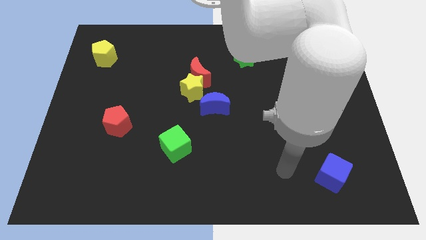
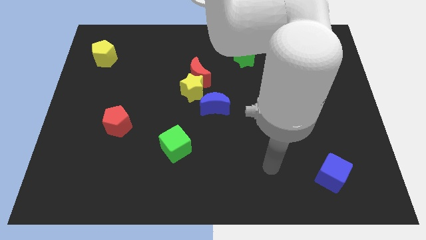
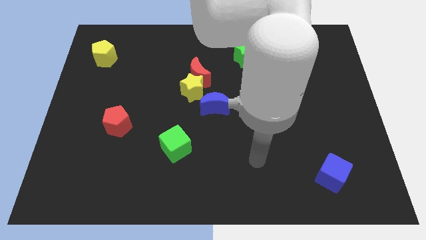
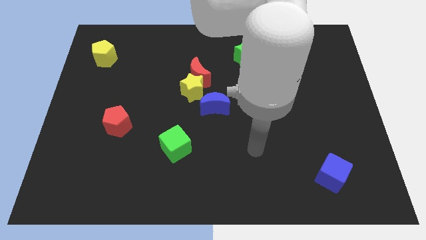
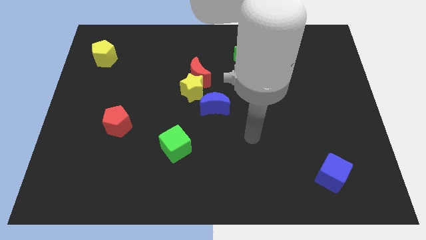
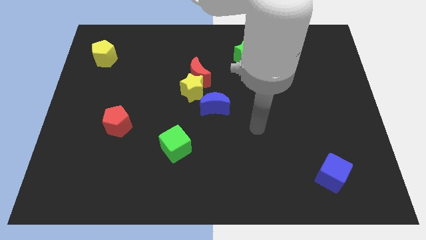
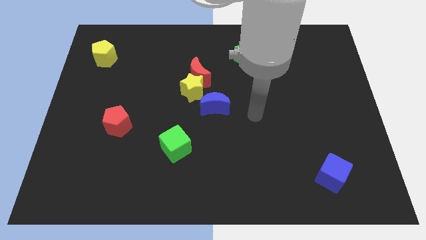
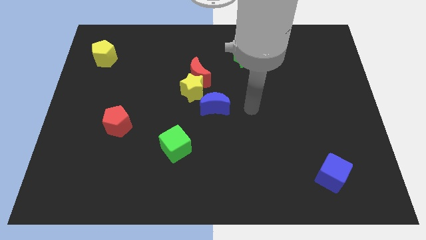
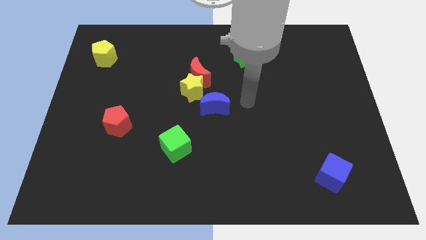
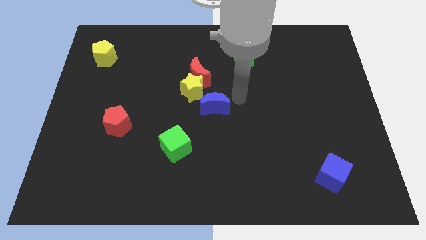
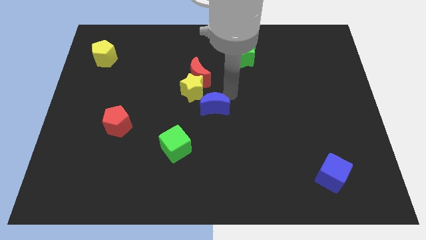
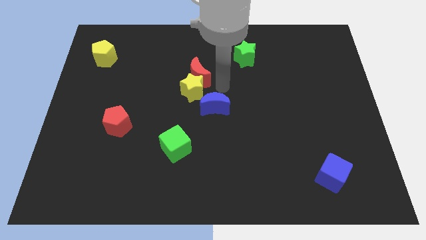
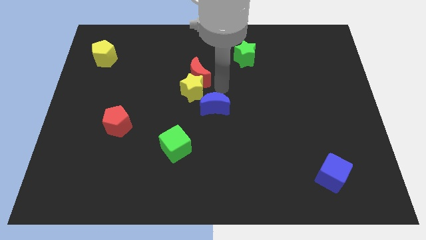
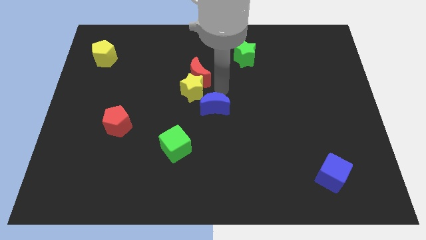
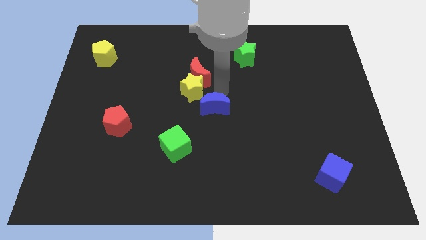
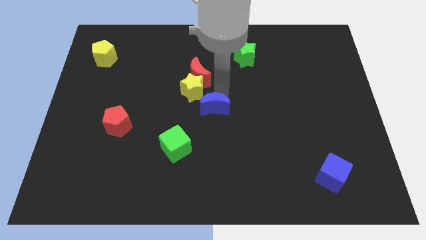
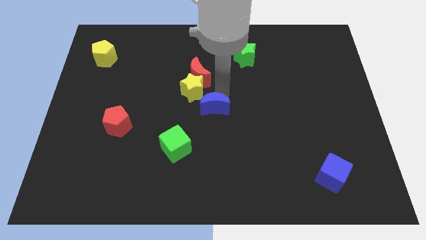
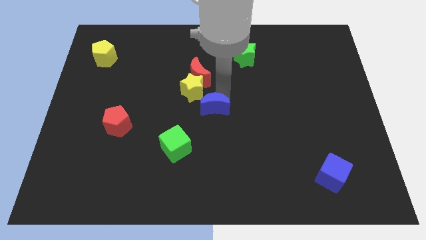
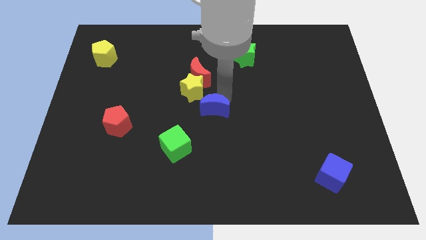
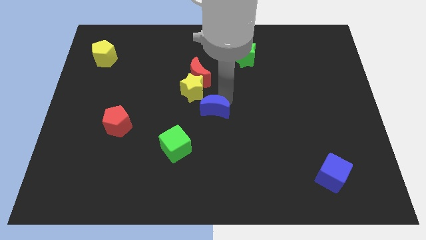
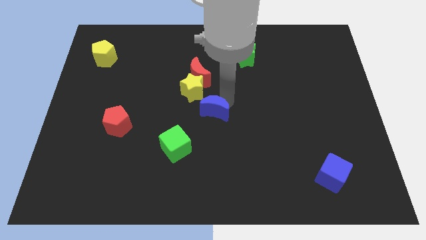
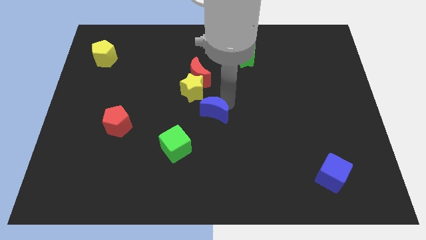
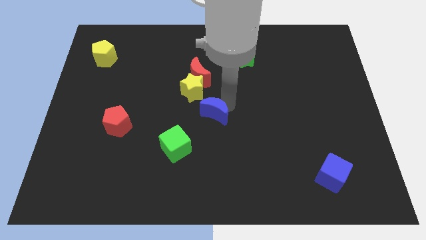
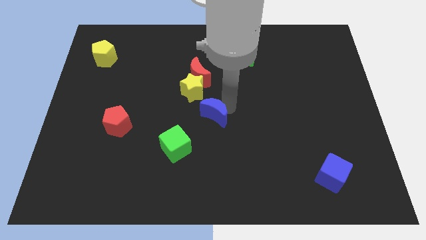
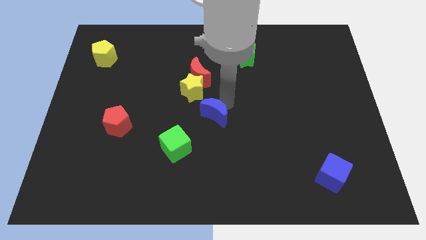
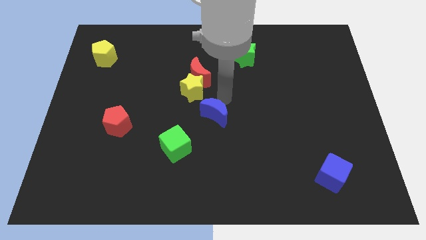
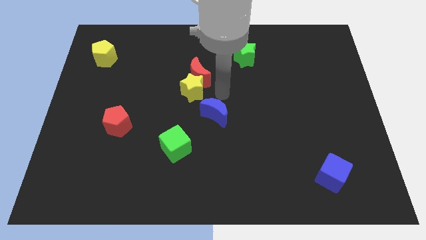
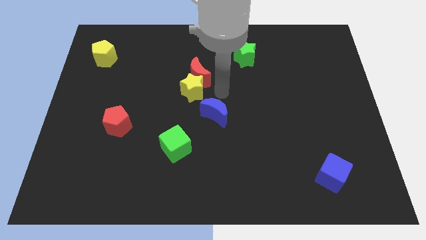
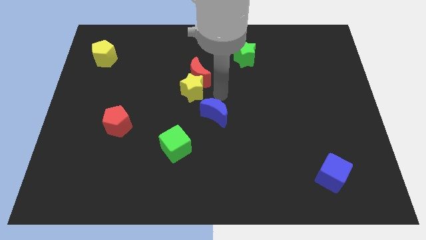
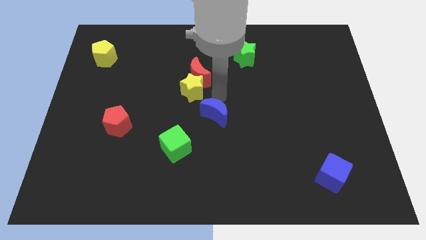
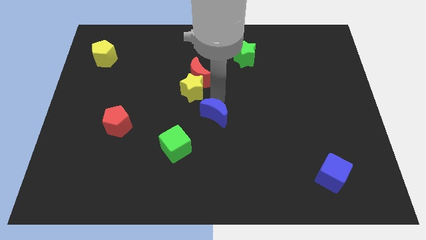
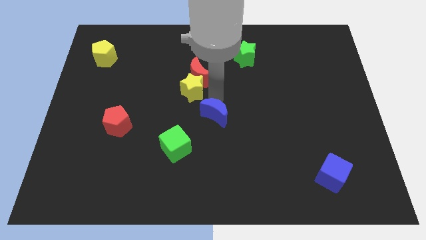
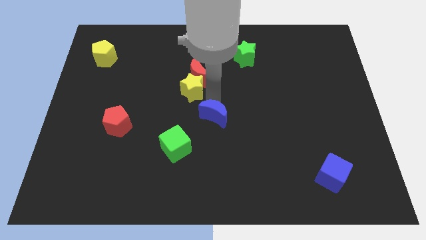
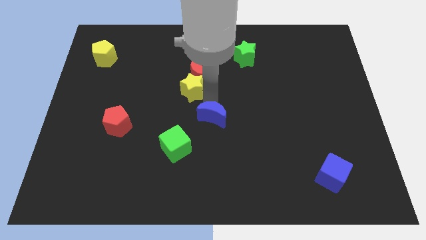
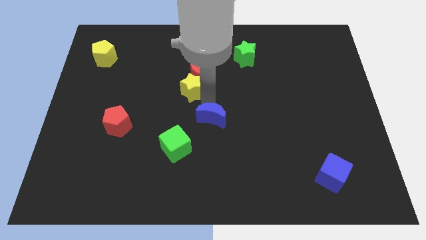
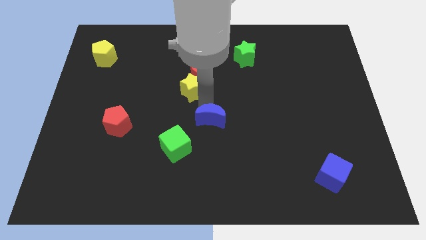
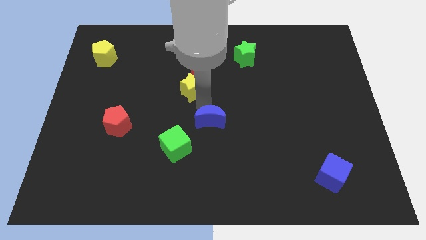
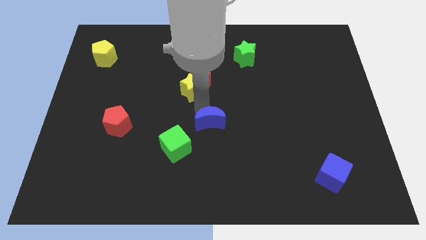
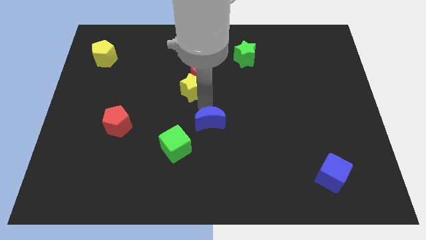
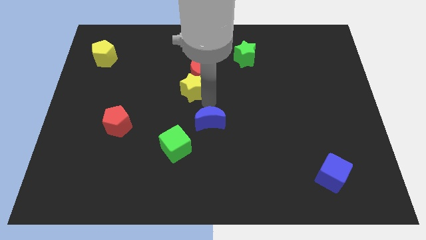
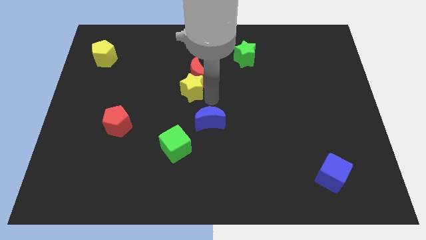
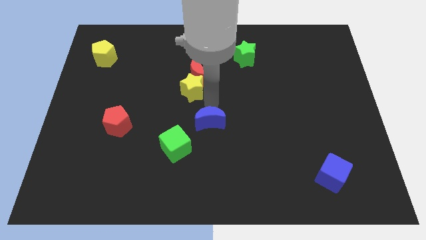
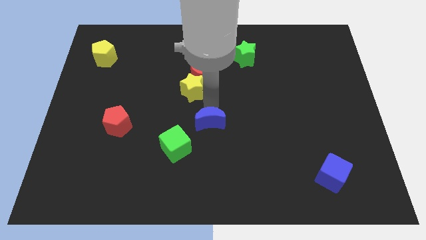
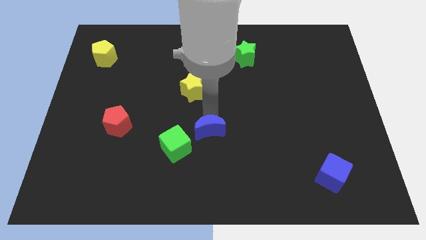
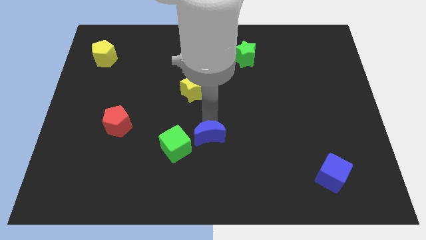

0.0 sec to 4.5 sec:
push the blue moon a little bit down

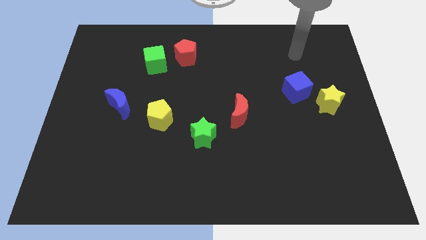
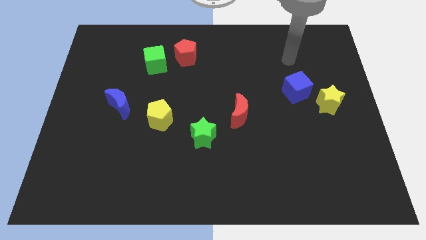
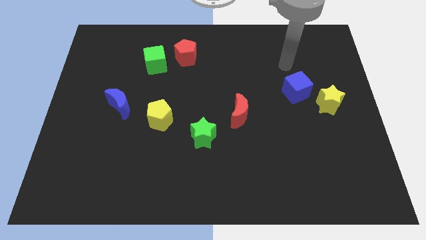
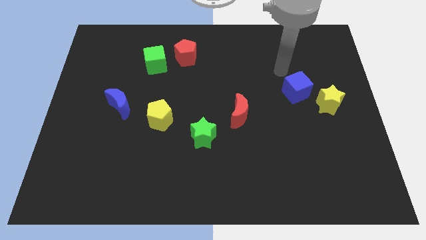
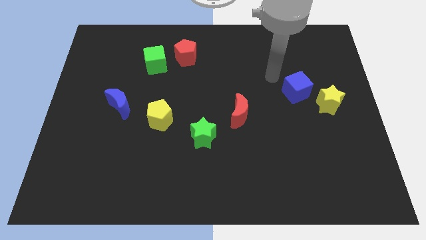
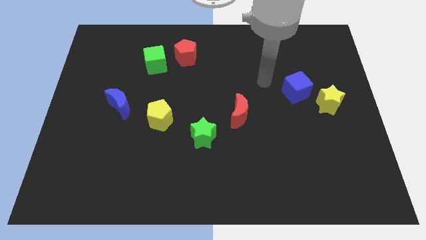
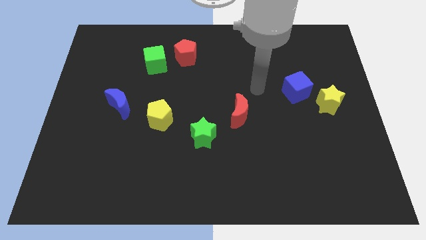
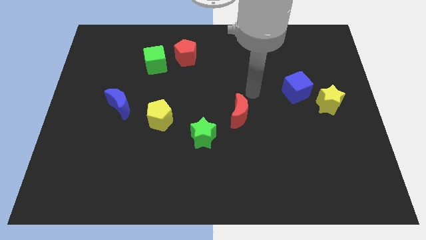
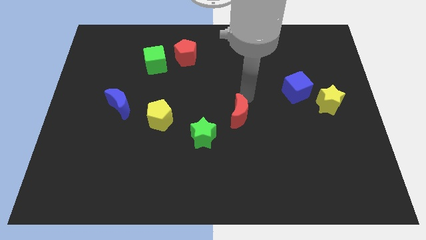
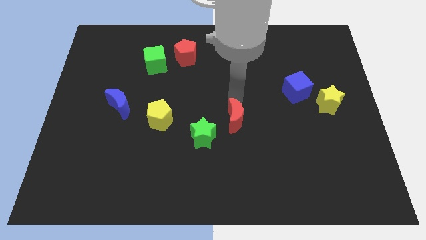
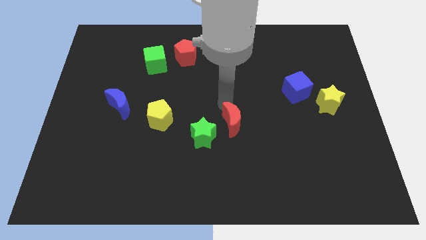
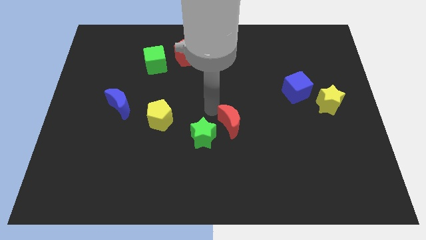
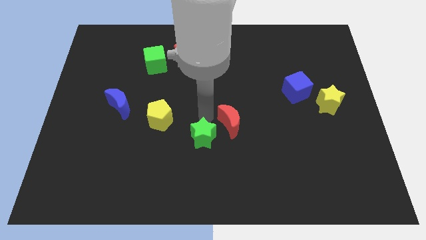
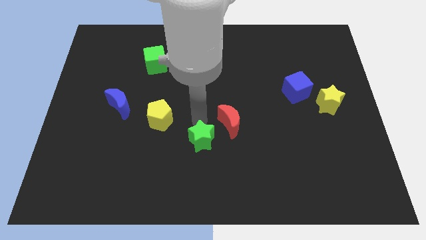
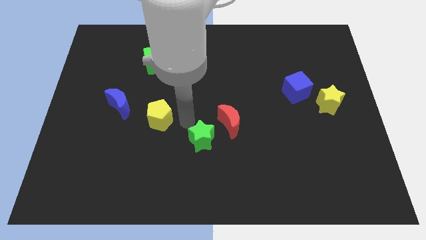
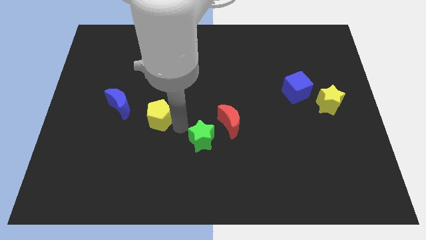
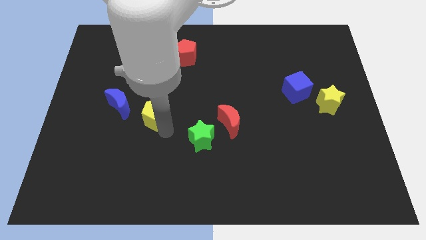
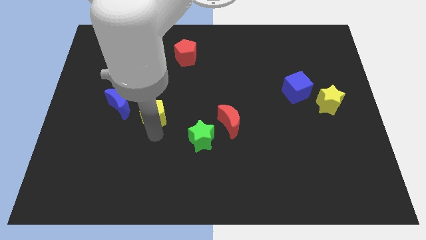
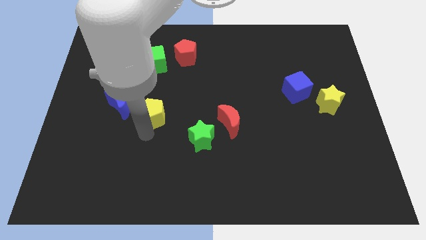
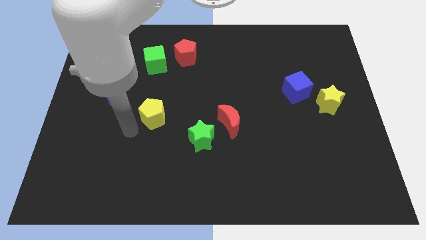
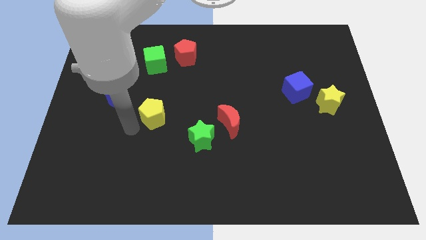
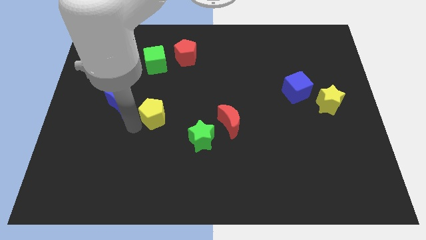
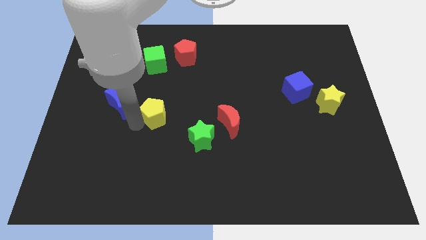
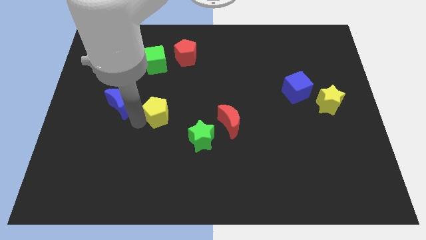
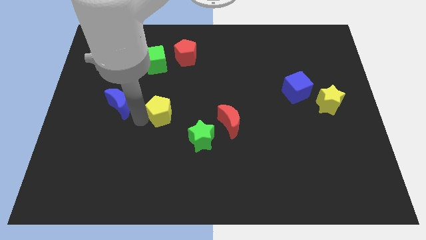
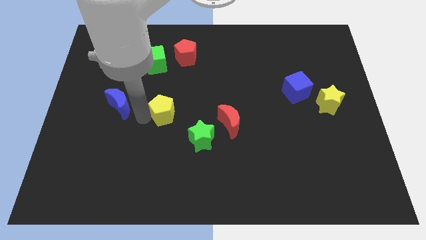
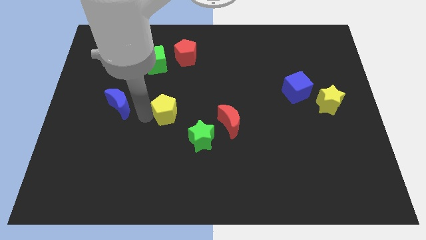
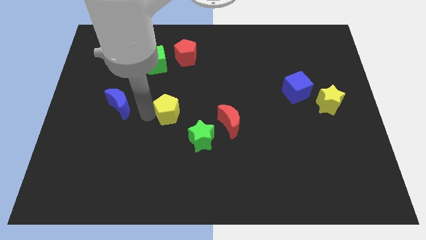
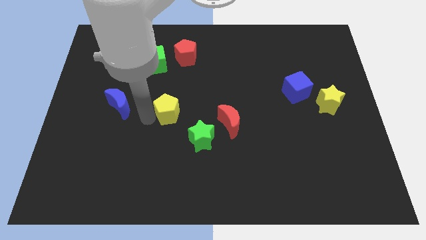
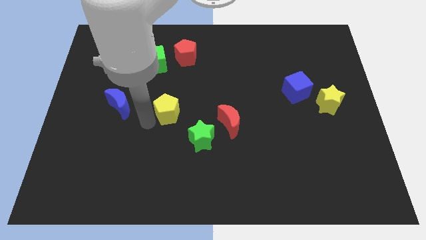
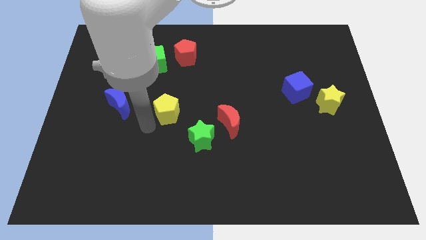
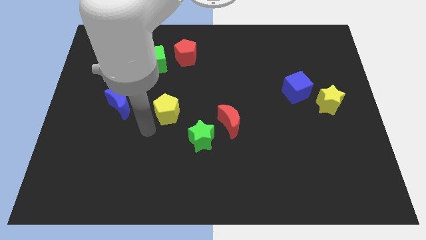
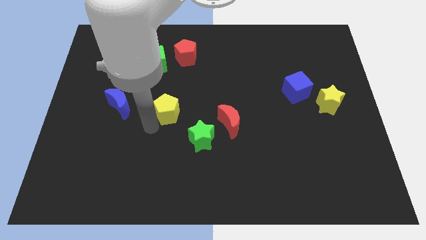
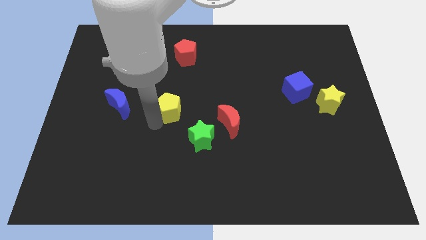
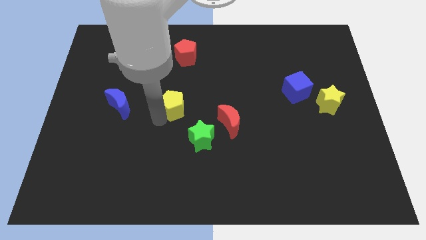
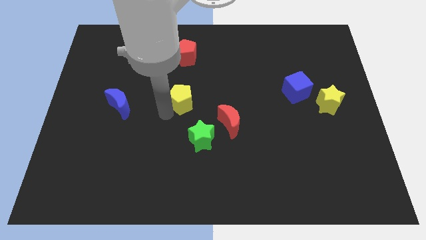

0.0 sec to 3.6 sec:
push the yellow pentagon upwards and then to the right somewhat
